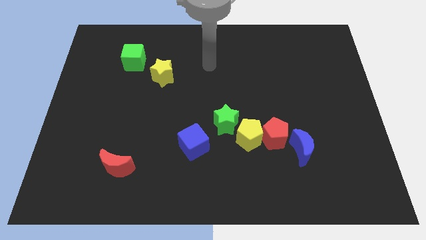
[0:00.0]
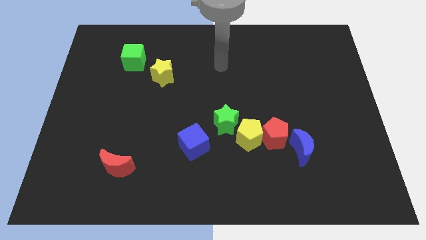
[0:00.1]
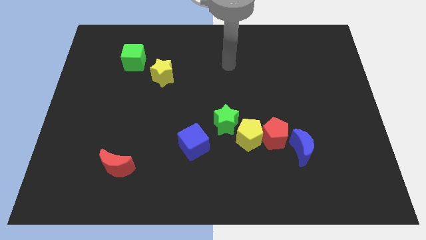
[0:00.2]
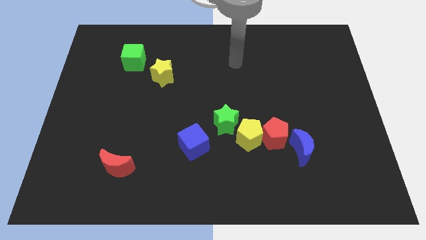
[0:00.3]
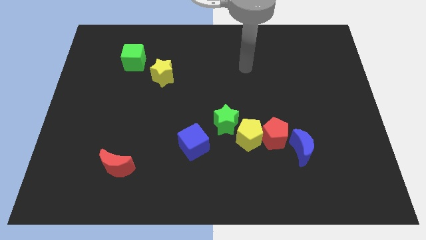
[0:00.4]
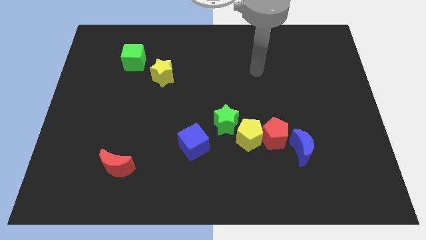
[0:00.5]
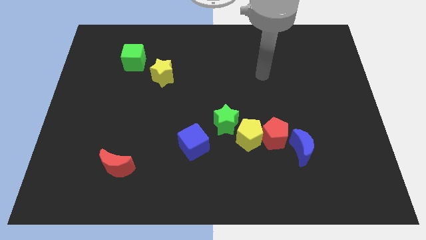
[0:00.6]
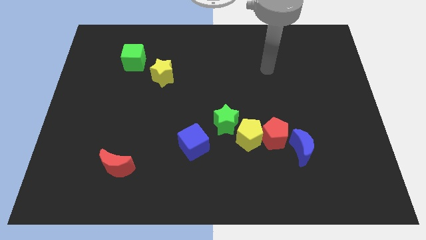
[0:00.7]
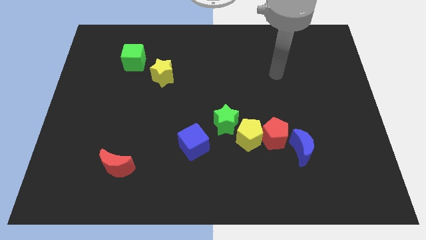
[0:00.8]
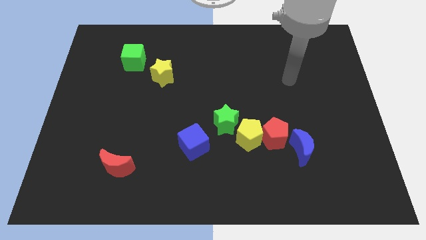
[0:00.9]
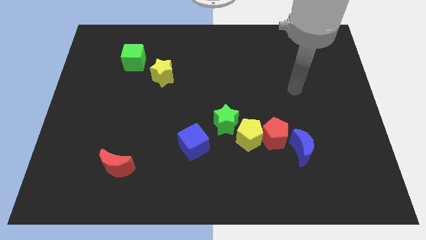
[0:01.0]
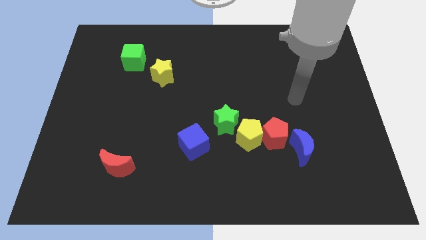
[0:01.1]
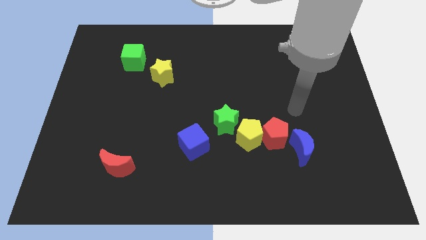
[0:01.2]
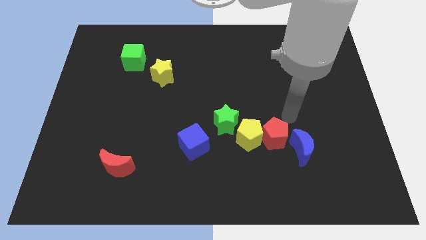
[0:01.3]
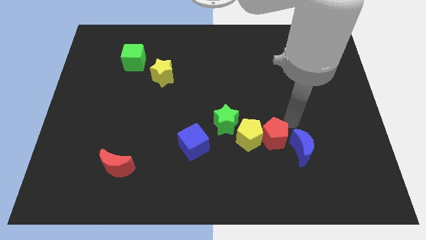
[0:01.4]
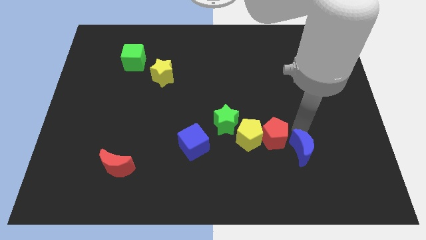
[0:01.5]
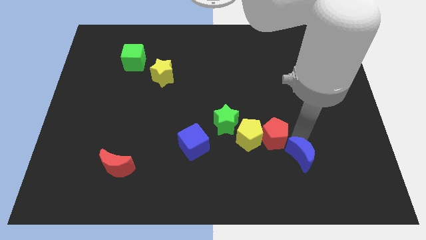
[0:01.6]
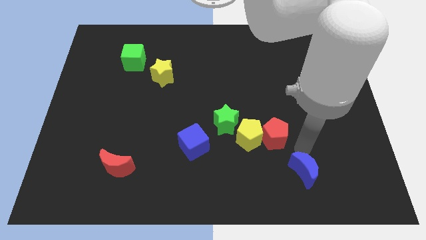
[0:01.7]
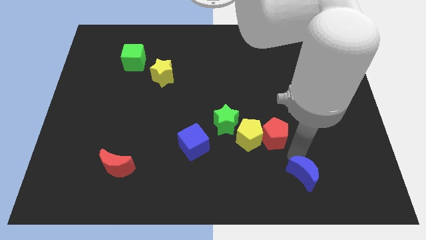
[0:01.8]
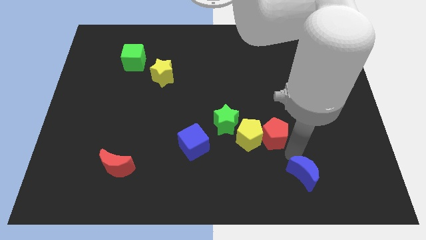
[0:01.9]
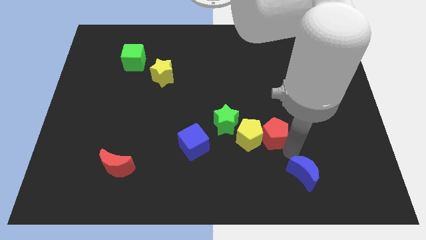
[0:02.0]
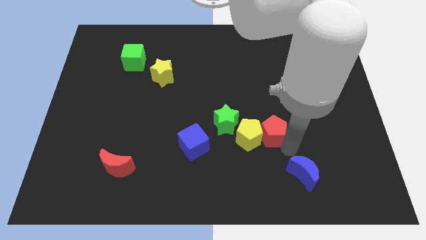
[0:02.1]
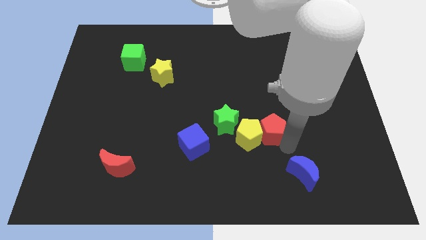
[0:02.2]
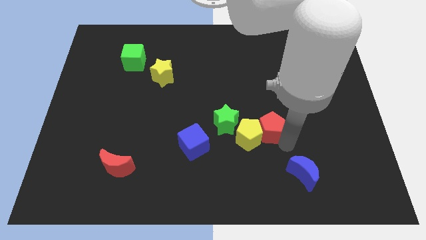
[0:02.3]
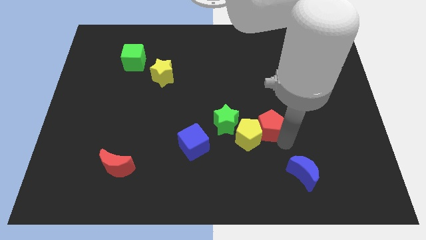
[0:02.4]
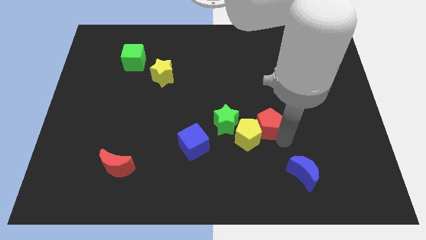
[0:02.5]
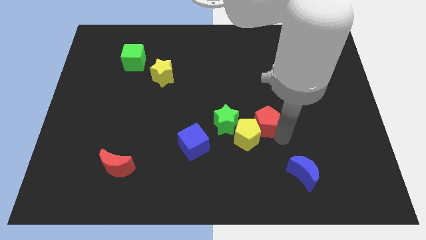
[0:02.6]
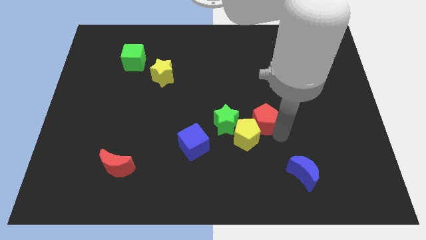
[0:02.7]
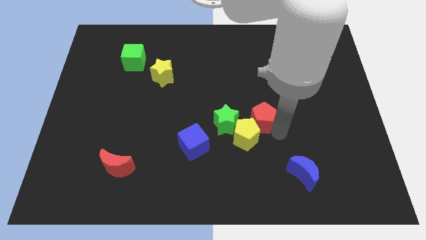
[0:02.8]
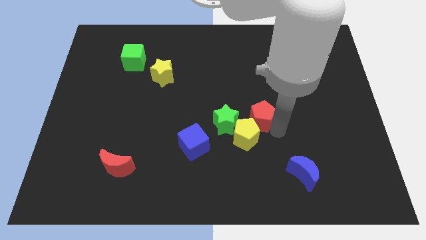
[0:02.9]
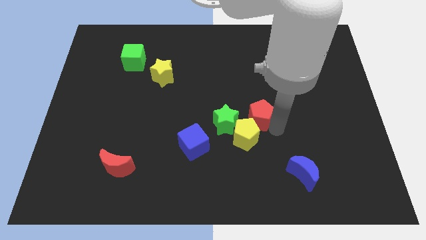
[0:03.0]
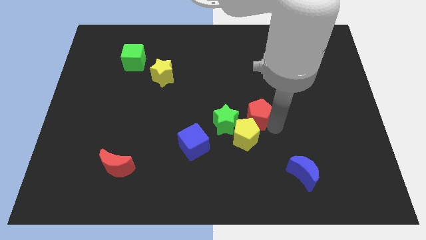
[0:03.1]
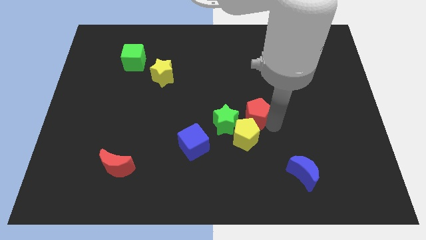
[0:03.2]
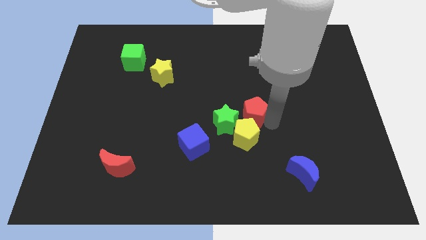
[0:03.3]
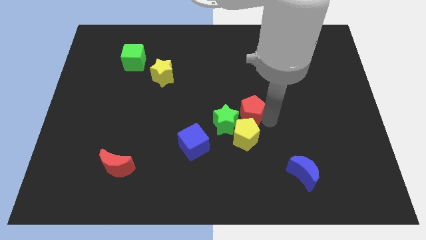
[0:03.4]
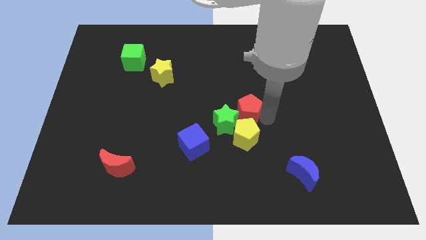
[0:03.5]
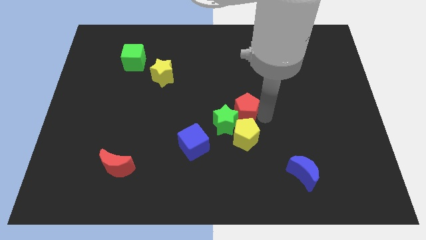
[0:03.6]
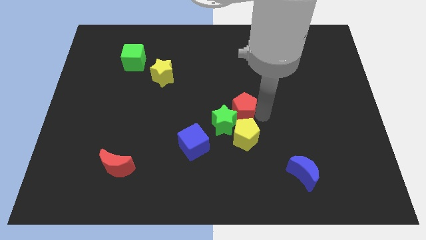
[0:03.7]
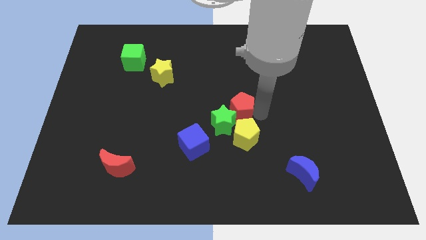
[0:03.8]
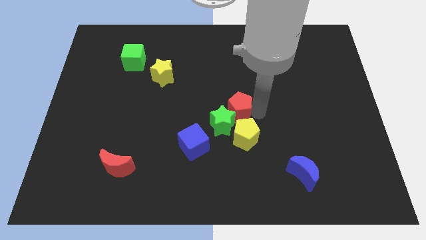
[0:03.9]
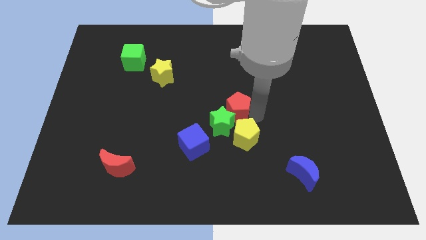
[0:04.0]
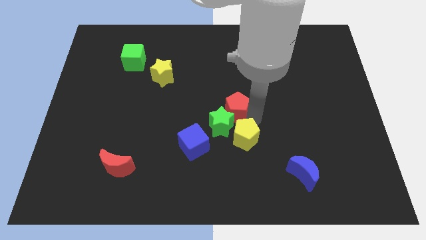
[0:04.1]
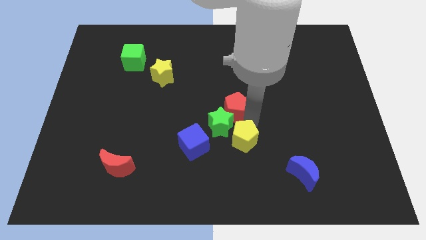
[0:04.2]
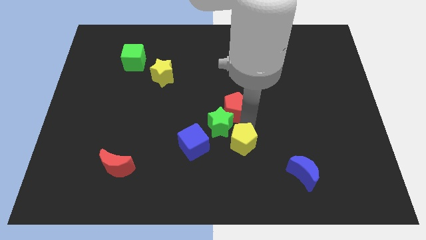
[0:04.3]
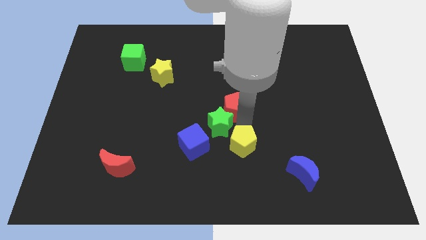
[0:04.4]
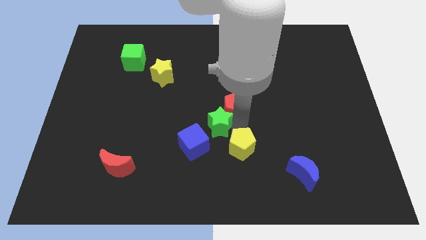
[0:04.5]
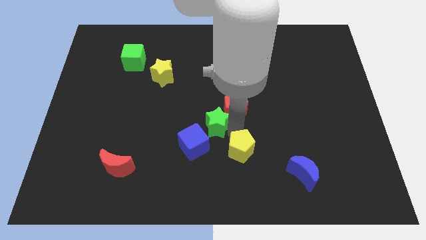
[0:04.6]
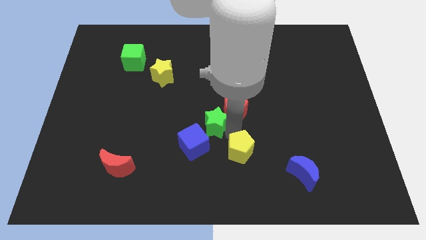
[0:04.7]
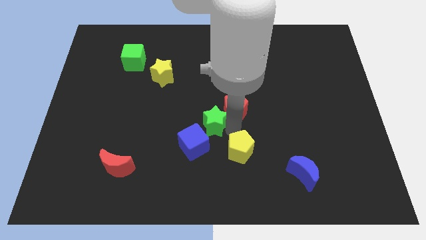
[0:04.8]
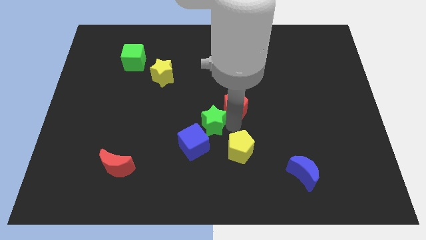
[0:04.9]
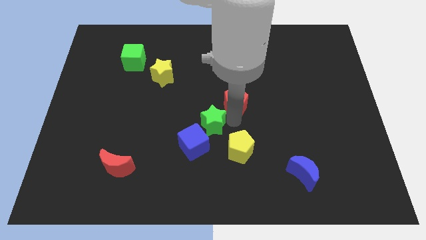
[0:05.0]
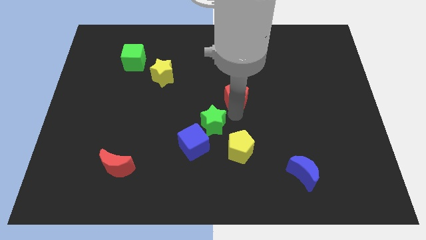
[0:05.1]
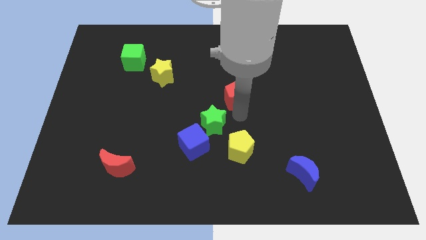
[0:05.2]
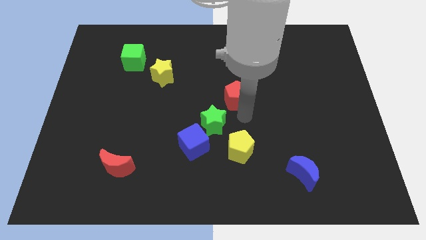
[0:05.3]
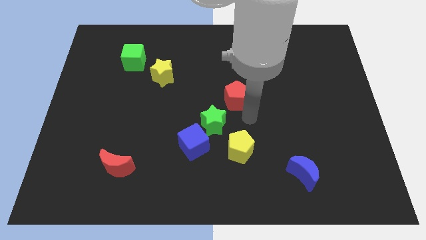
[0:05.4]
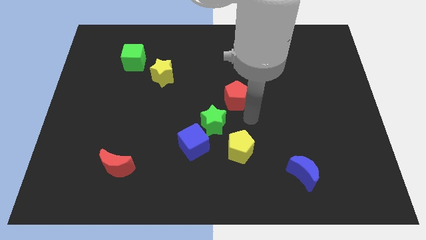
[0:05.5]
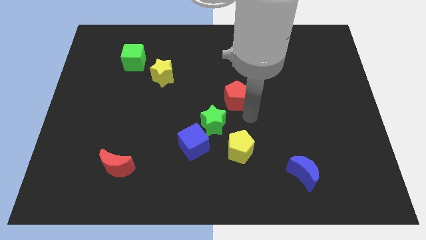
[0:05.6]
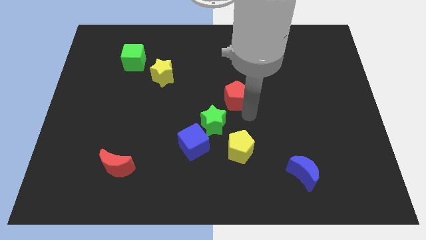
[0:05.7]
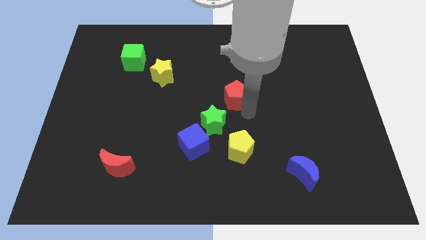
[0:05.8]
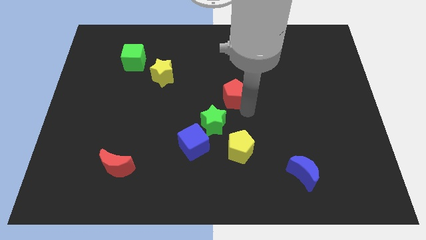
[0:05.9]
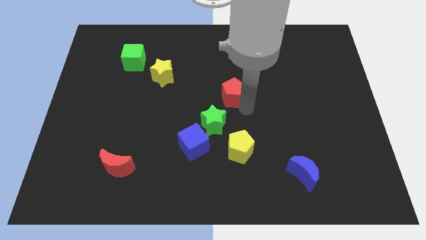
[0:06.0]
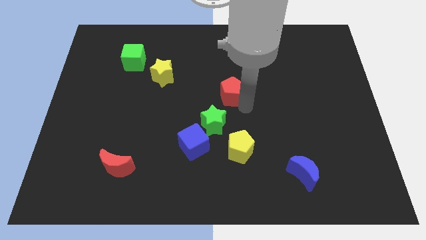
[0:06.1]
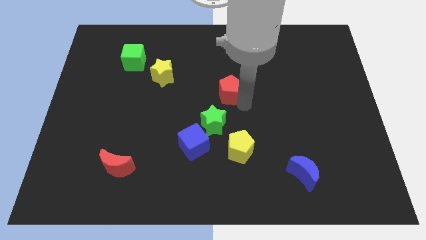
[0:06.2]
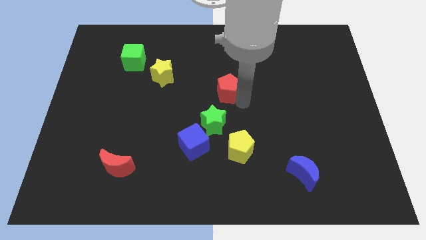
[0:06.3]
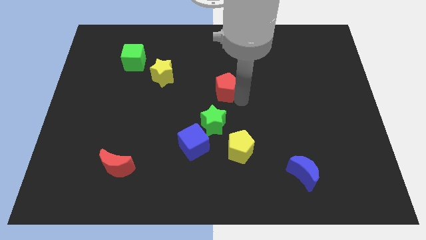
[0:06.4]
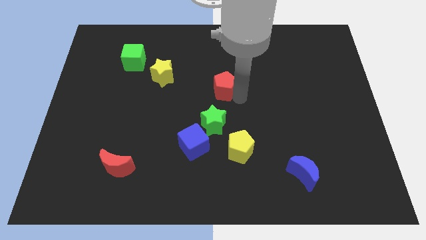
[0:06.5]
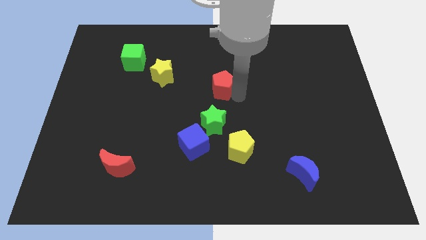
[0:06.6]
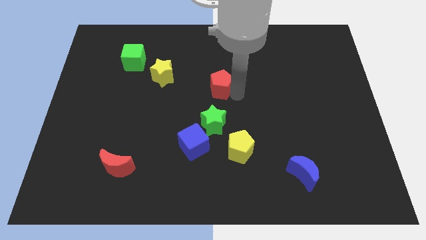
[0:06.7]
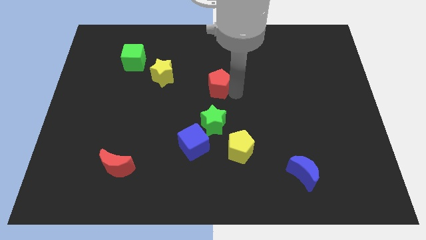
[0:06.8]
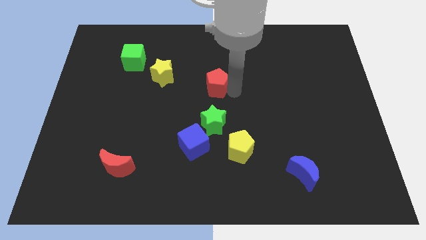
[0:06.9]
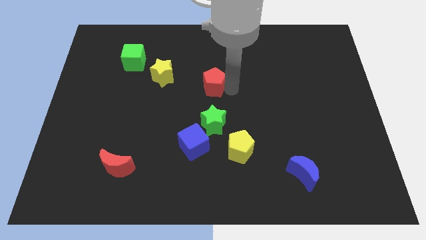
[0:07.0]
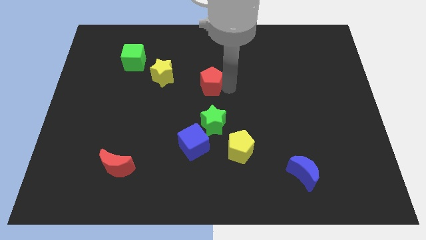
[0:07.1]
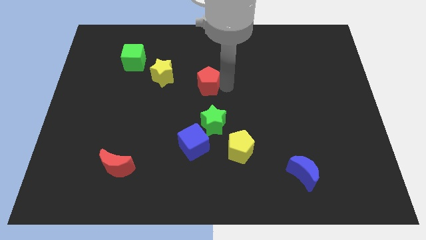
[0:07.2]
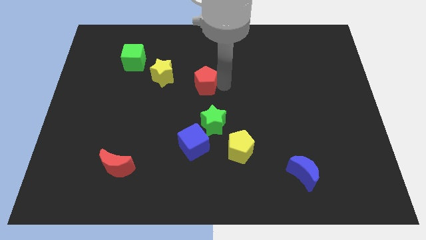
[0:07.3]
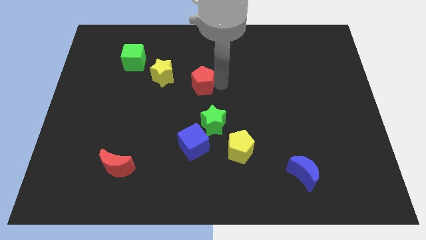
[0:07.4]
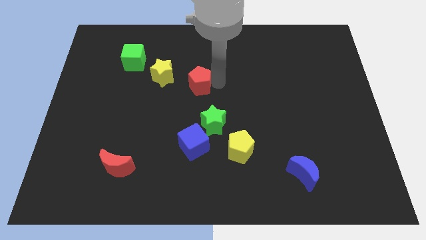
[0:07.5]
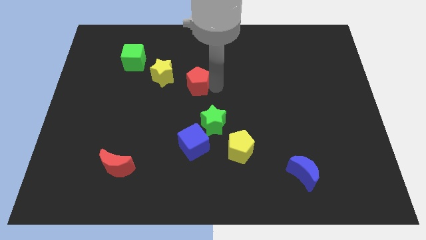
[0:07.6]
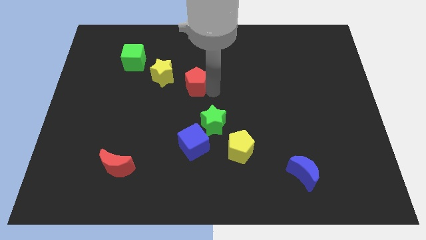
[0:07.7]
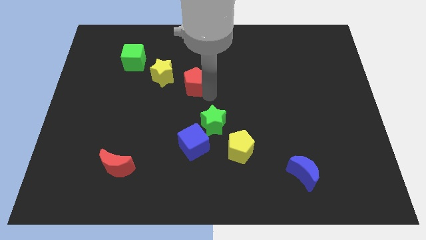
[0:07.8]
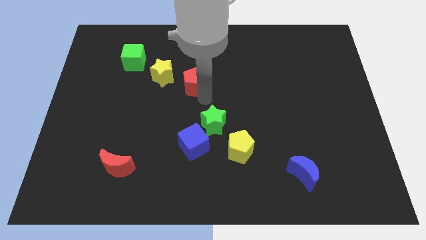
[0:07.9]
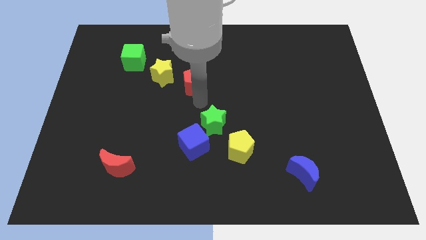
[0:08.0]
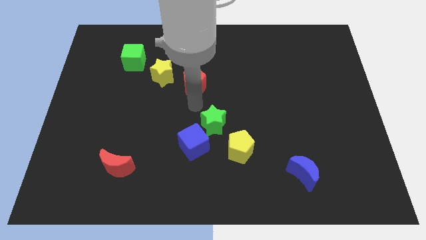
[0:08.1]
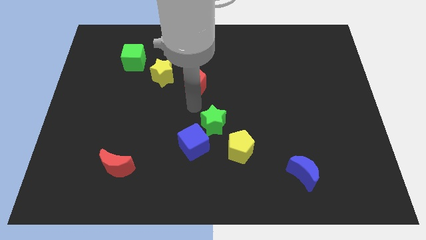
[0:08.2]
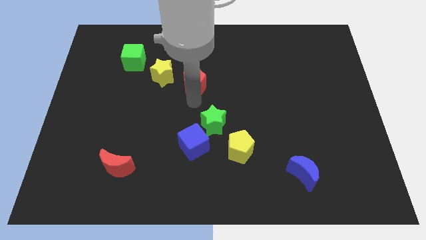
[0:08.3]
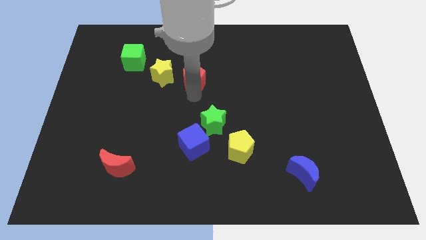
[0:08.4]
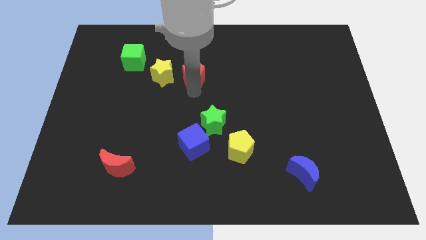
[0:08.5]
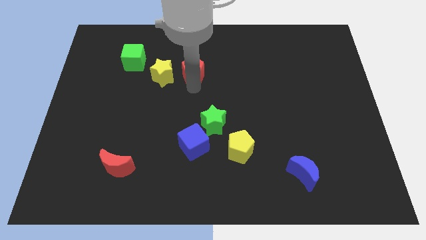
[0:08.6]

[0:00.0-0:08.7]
push the red pentagon to the top right side of the yellow star

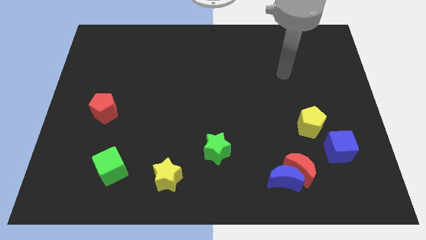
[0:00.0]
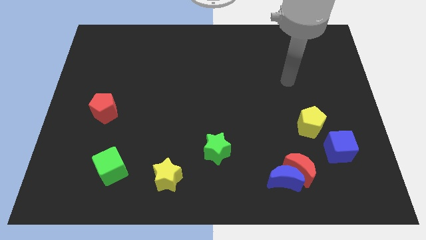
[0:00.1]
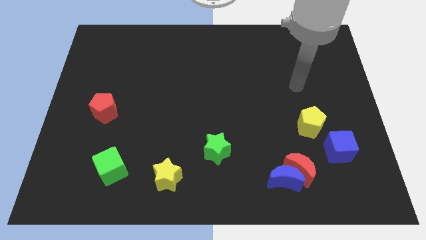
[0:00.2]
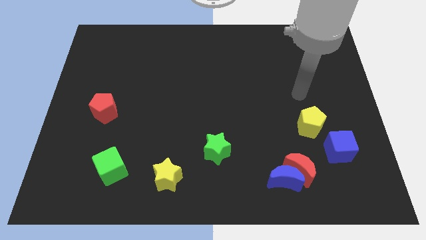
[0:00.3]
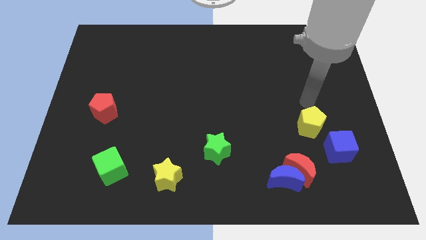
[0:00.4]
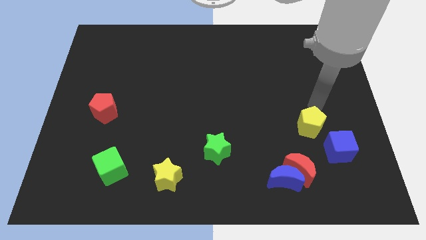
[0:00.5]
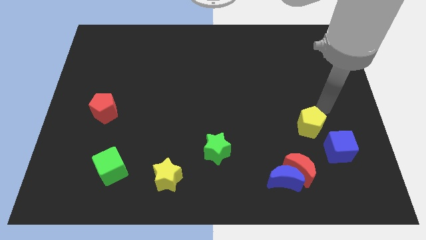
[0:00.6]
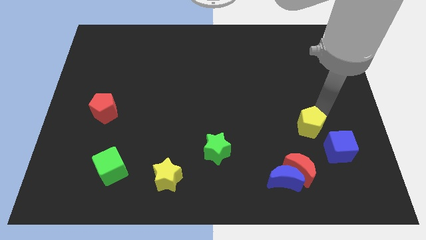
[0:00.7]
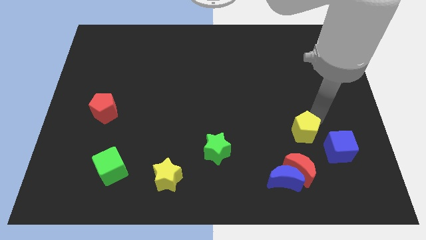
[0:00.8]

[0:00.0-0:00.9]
move the yellow pentagon to the left side of the blue cube
